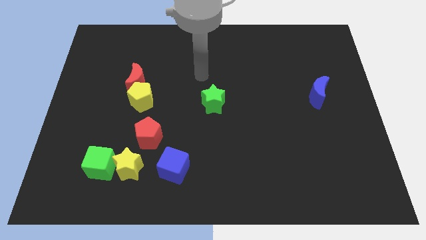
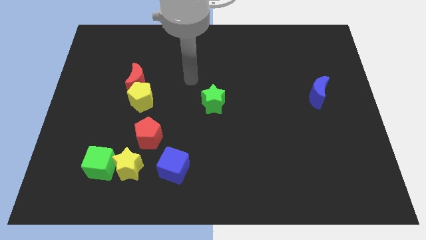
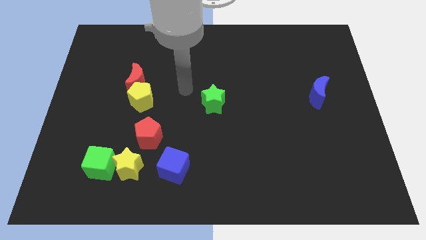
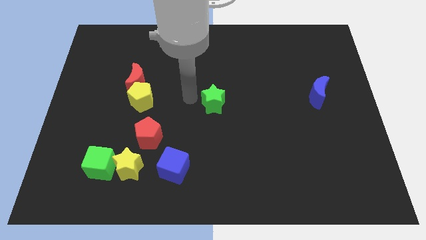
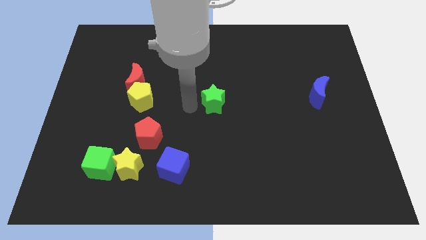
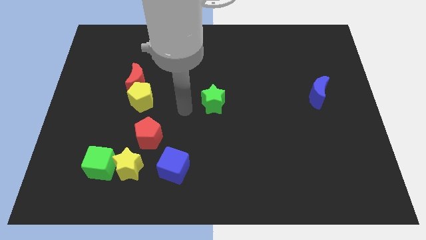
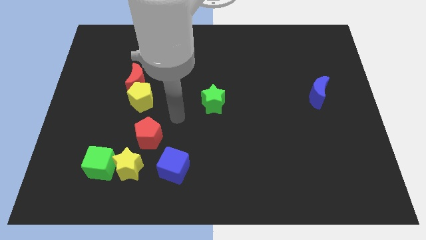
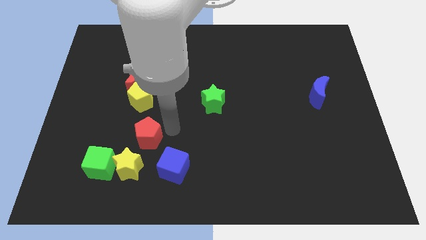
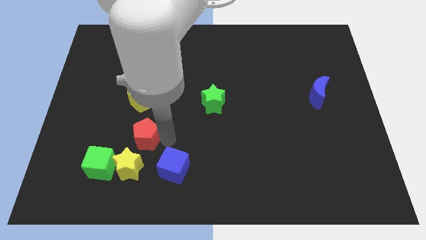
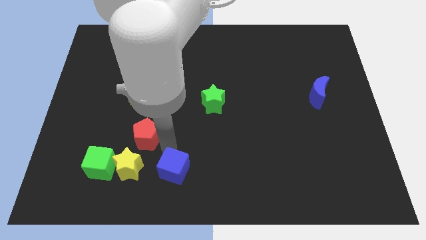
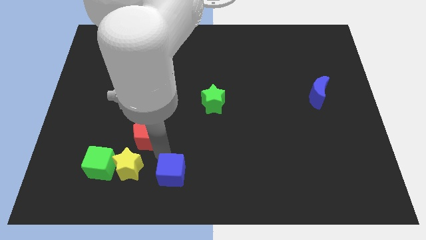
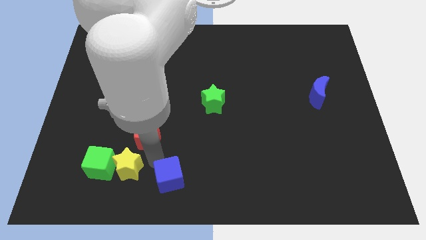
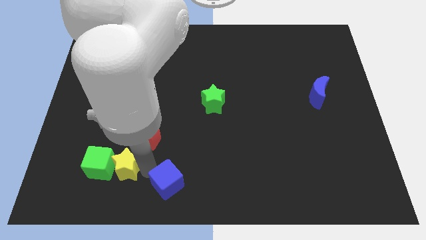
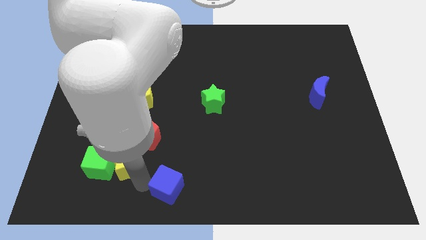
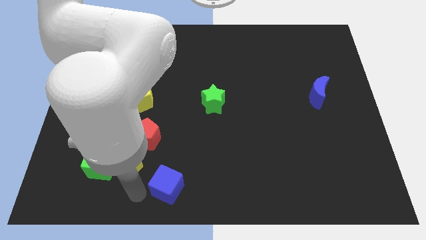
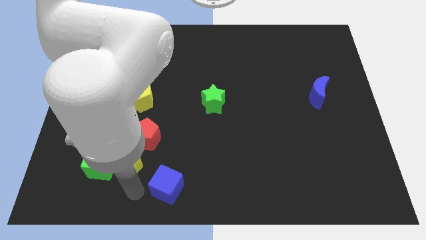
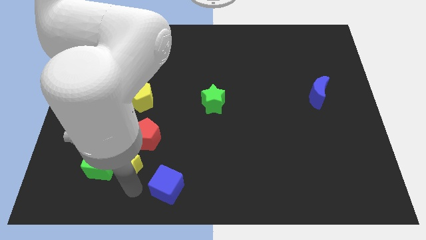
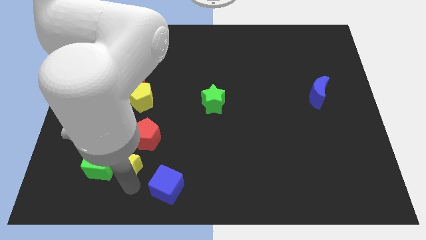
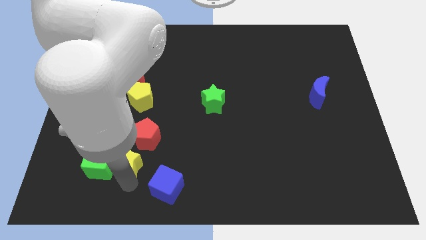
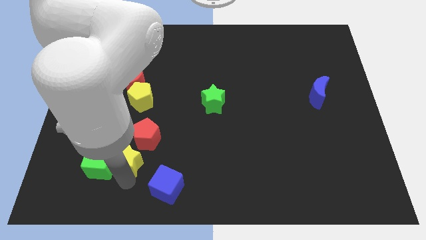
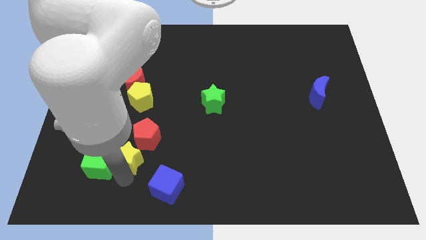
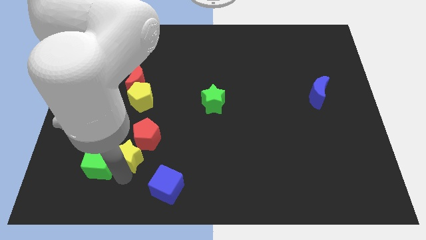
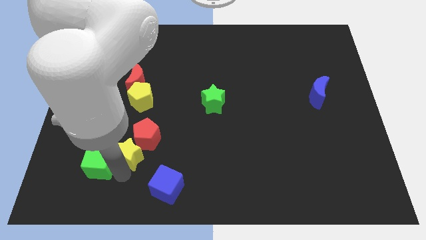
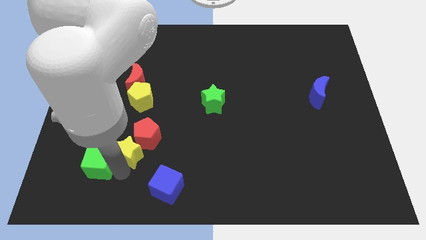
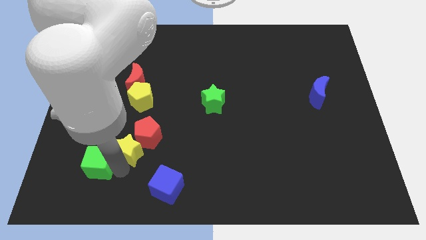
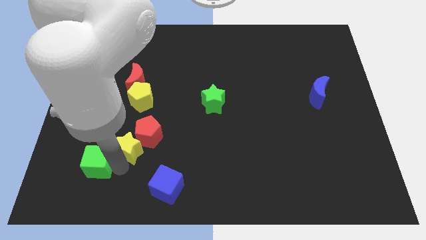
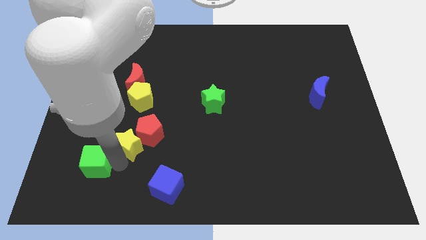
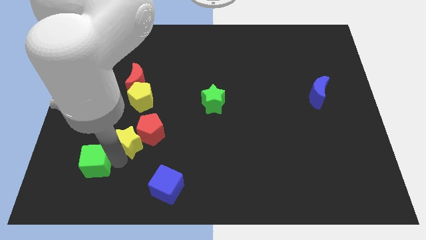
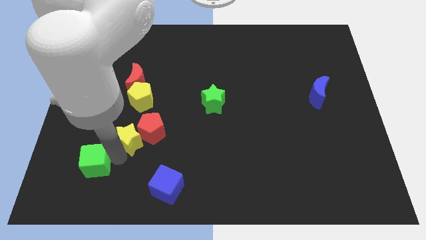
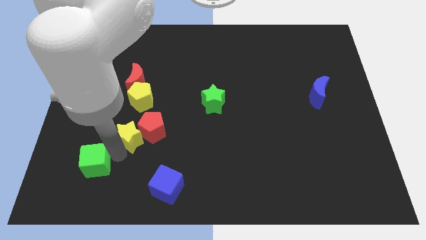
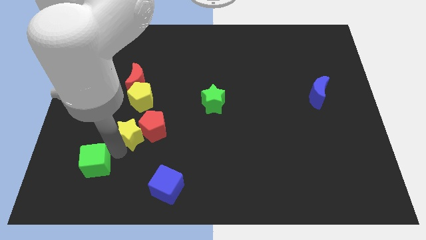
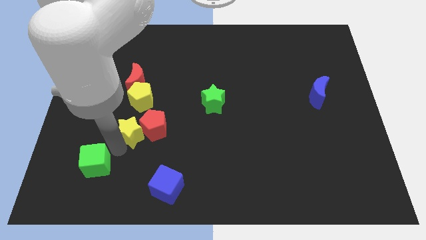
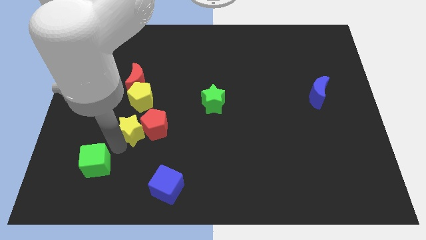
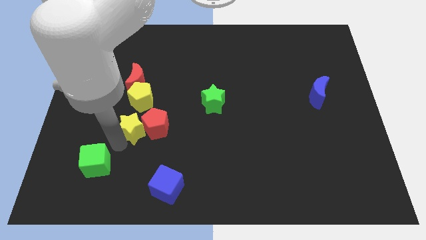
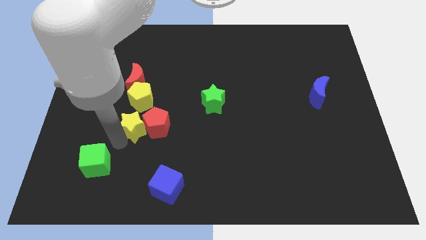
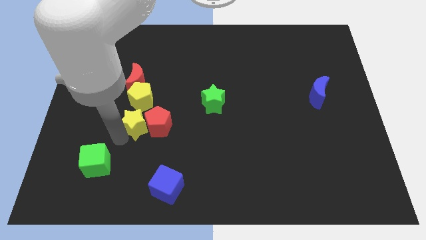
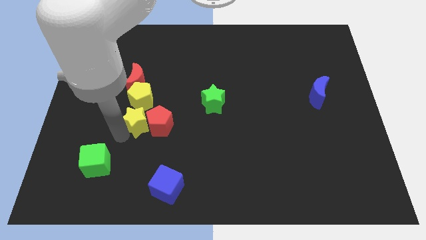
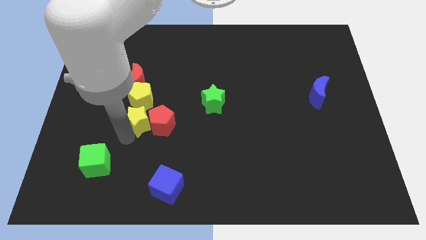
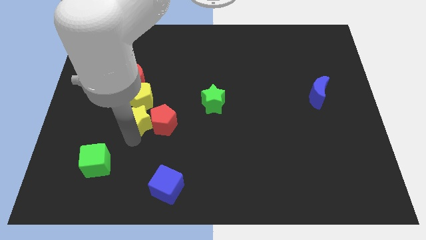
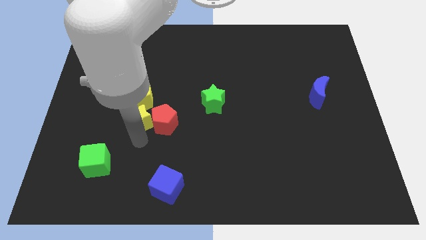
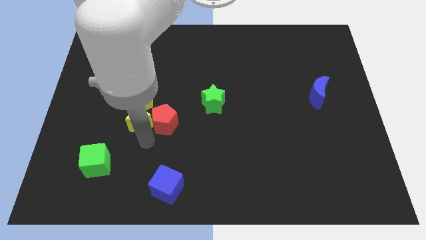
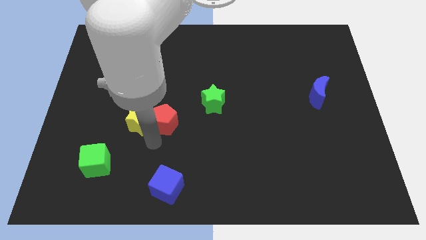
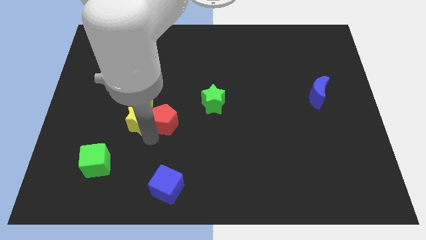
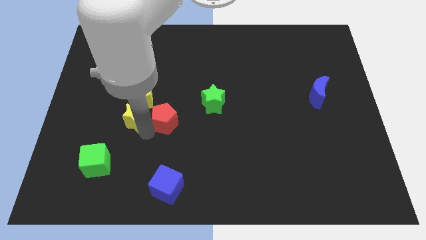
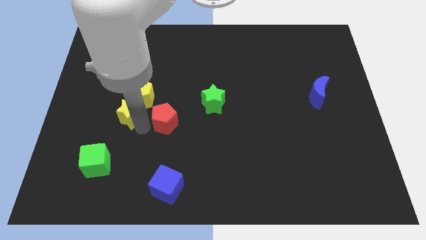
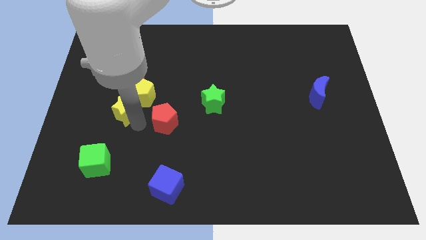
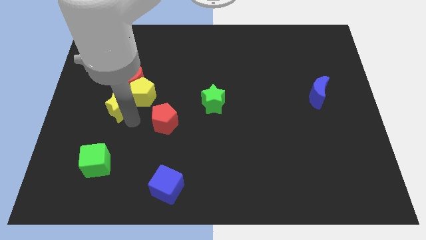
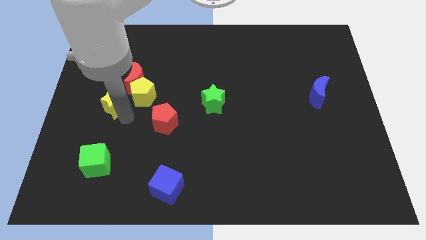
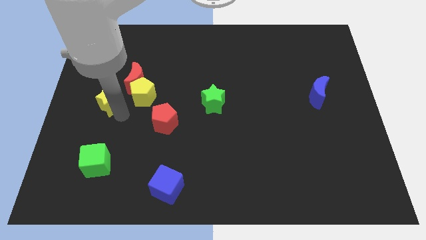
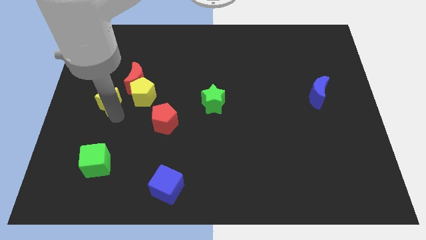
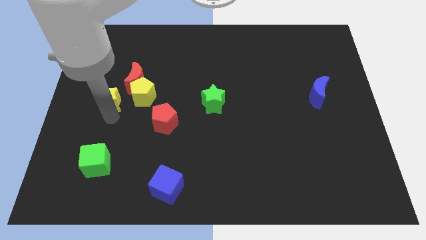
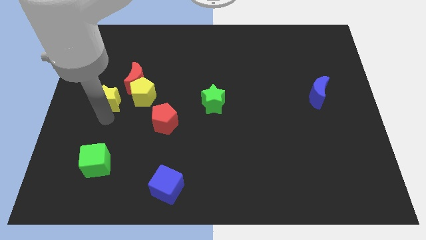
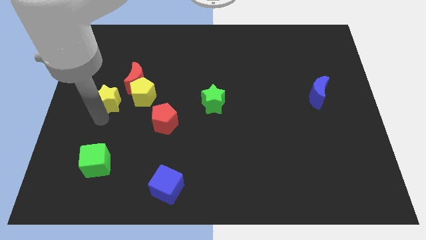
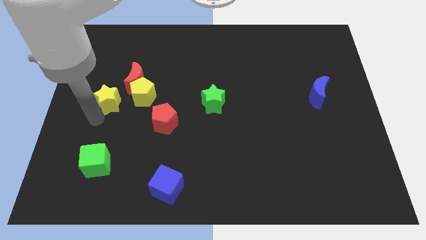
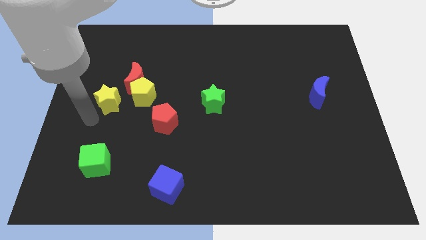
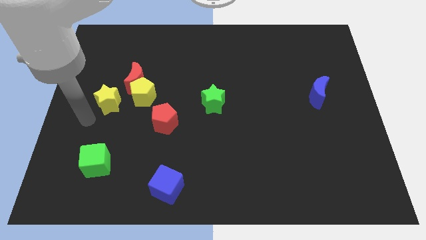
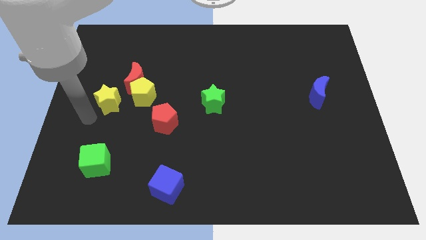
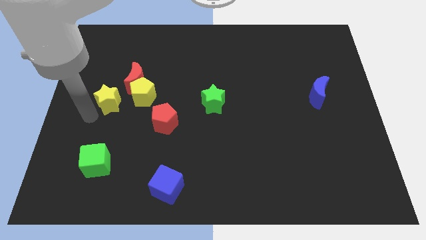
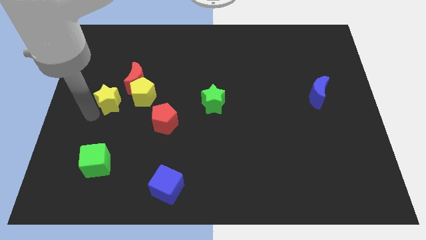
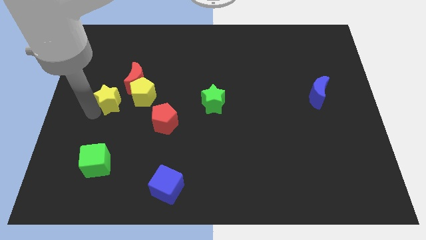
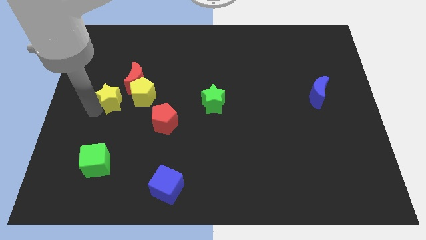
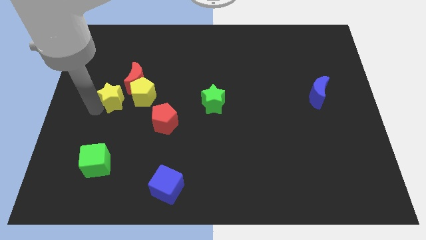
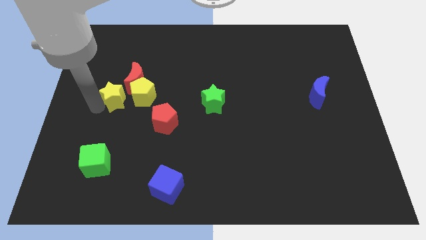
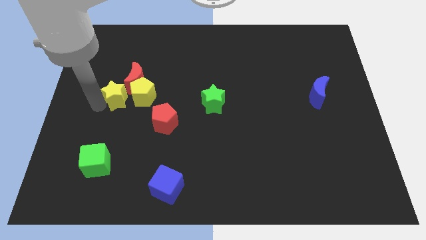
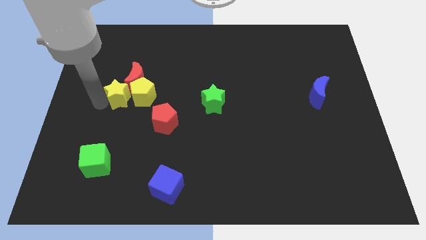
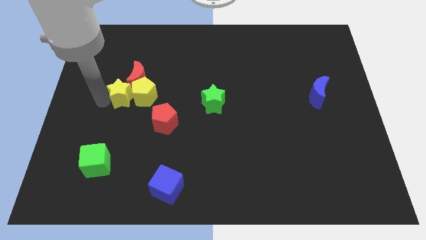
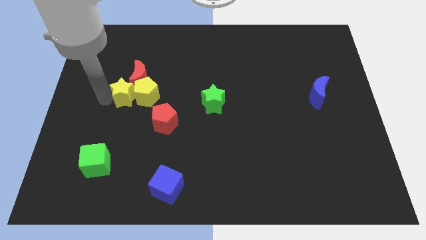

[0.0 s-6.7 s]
slide the yellow star to the red moon
